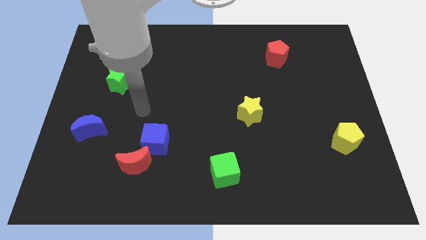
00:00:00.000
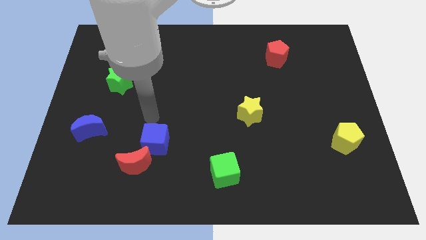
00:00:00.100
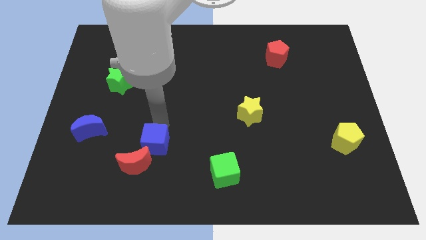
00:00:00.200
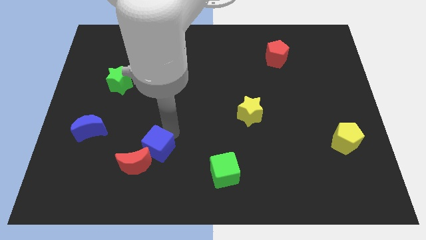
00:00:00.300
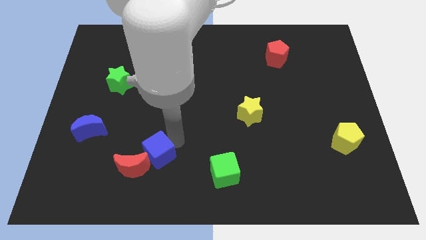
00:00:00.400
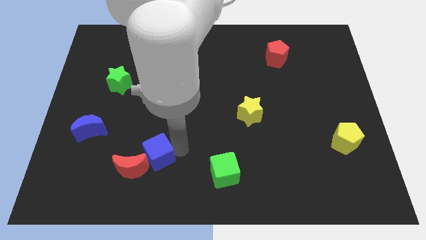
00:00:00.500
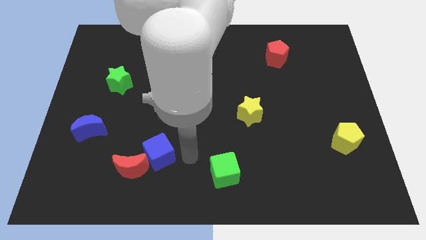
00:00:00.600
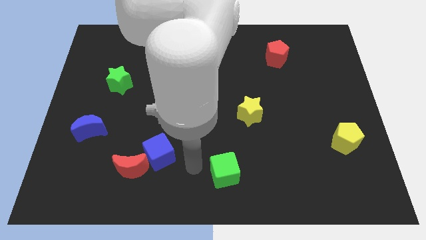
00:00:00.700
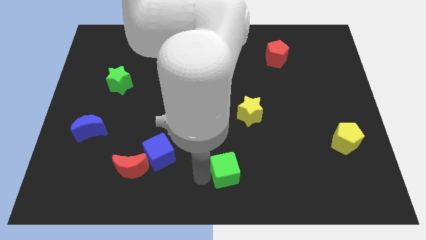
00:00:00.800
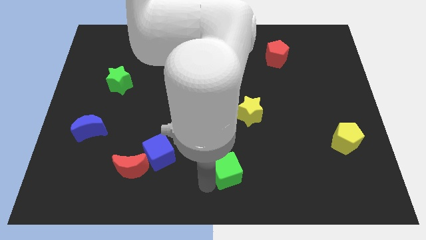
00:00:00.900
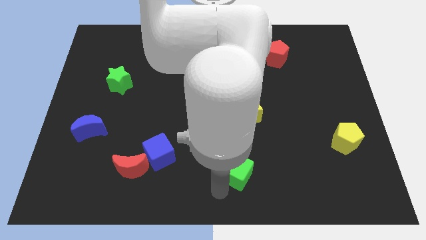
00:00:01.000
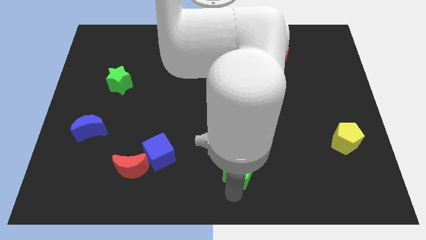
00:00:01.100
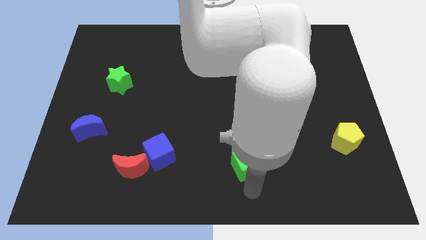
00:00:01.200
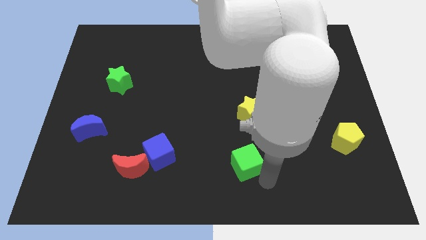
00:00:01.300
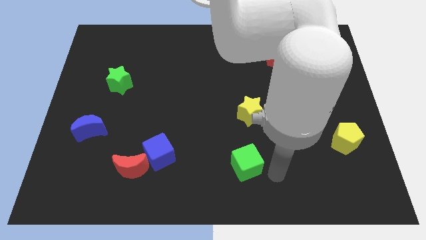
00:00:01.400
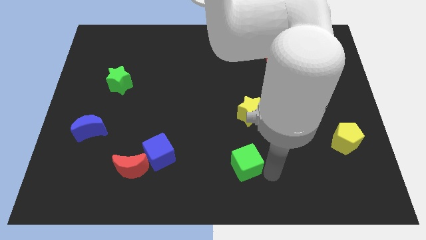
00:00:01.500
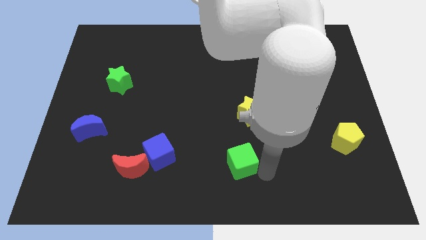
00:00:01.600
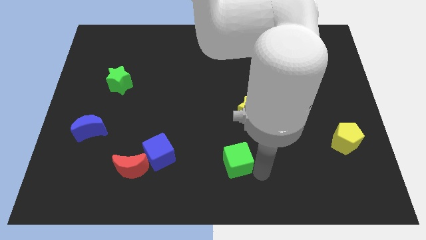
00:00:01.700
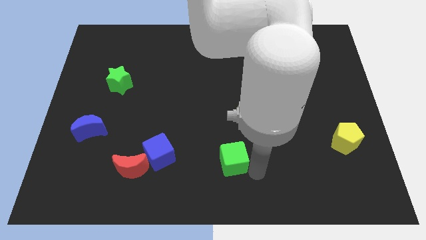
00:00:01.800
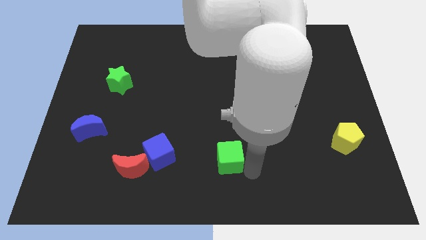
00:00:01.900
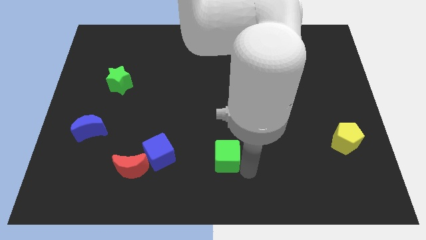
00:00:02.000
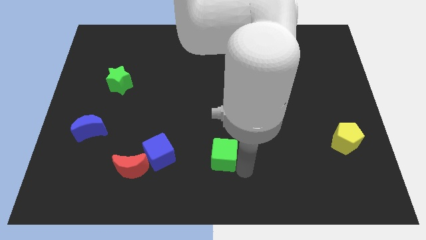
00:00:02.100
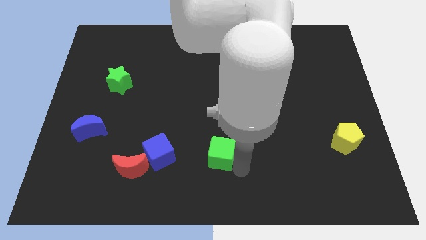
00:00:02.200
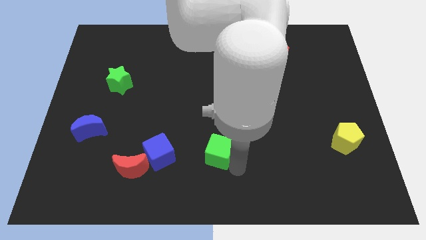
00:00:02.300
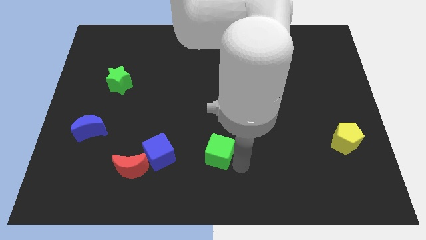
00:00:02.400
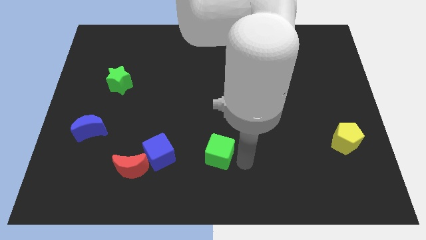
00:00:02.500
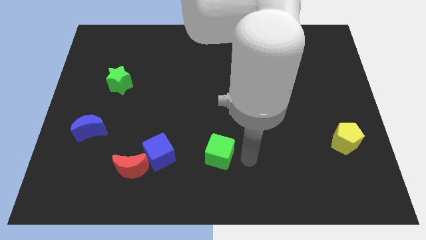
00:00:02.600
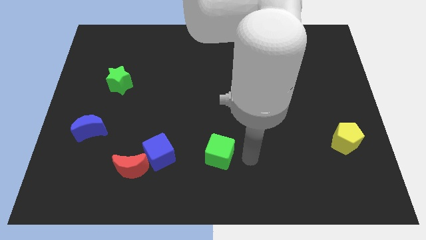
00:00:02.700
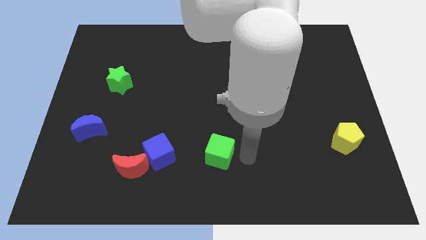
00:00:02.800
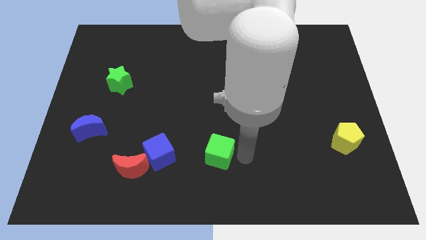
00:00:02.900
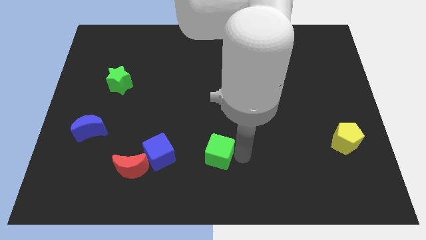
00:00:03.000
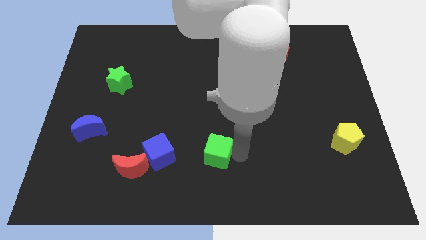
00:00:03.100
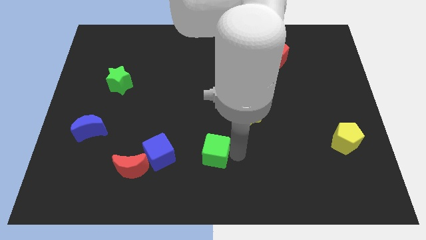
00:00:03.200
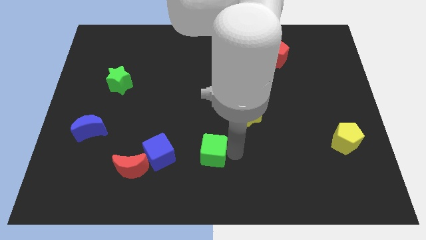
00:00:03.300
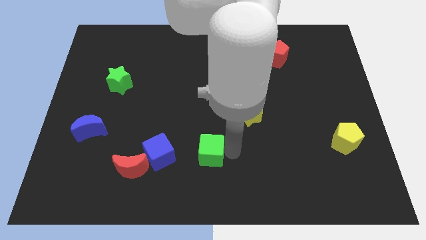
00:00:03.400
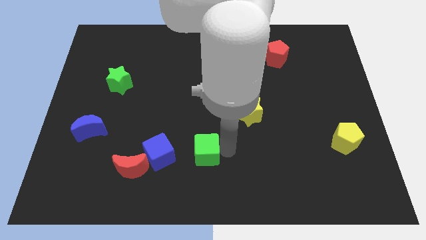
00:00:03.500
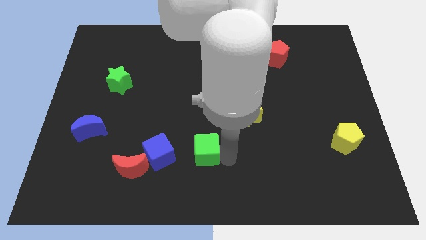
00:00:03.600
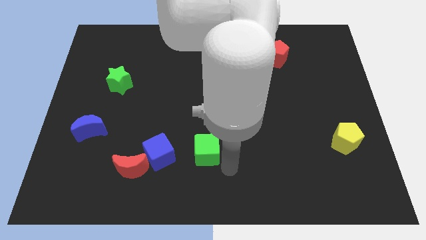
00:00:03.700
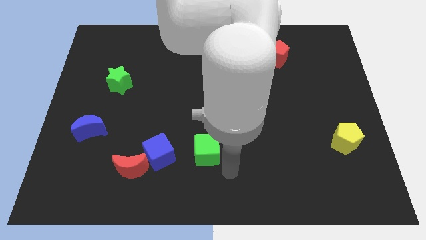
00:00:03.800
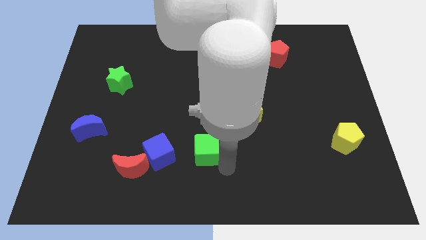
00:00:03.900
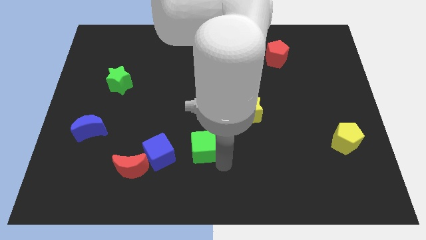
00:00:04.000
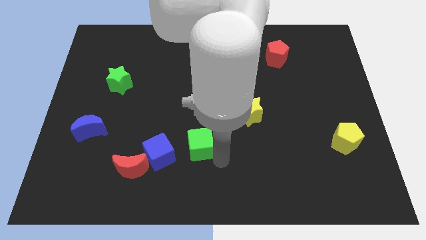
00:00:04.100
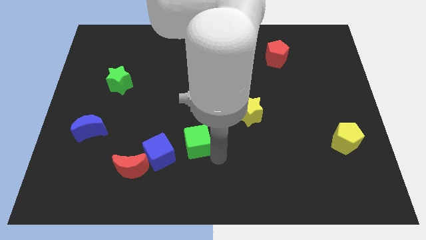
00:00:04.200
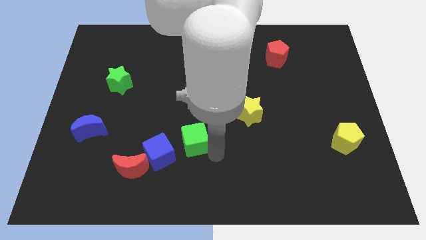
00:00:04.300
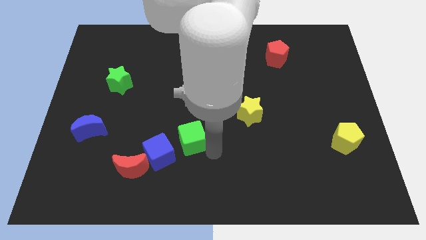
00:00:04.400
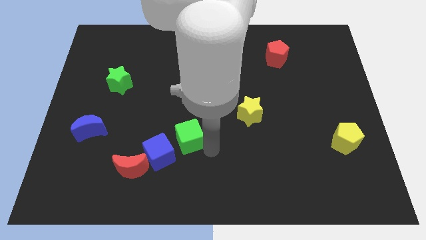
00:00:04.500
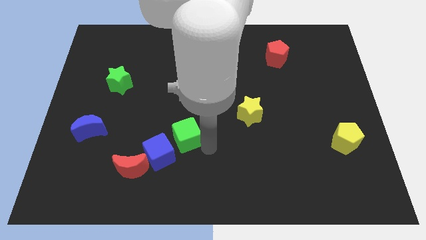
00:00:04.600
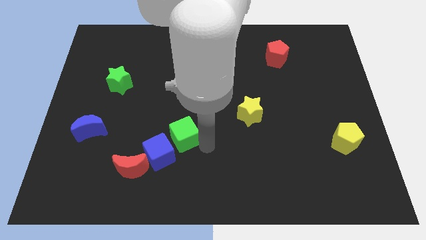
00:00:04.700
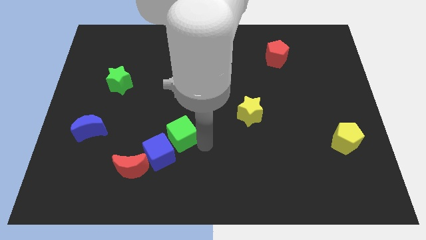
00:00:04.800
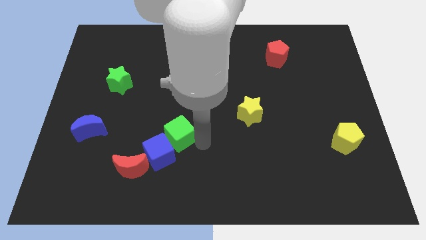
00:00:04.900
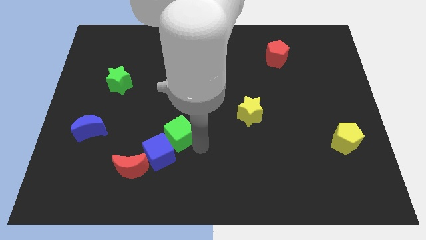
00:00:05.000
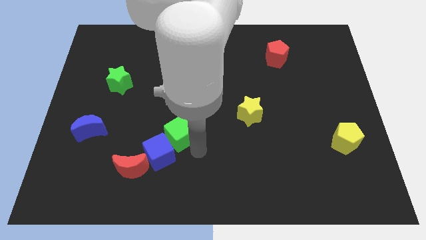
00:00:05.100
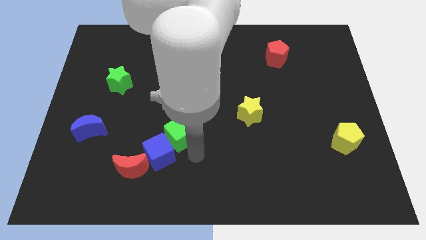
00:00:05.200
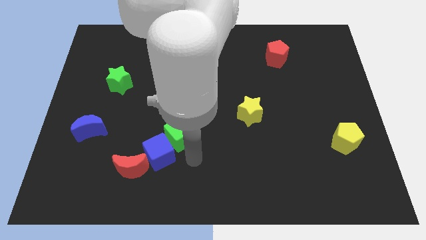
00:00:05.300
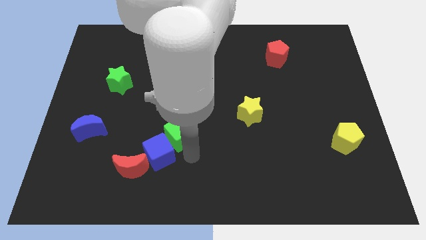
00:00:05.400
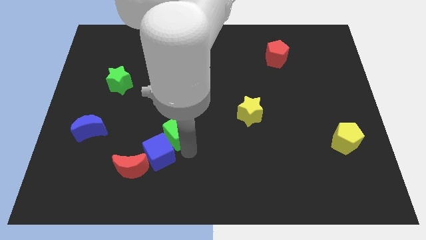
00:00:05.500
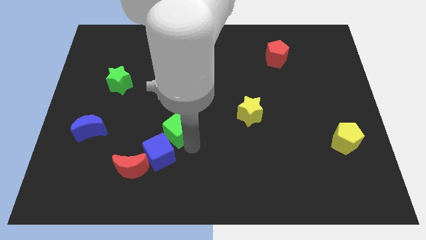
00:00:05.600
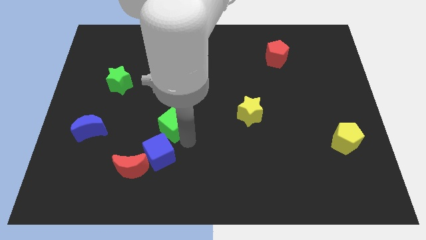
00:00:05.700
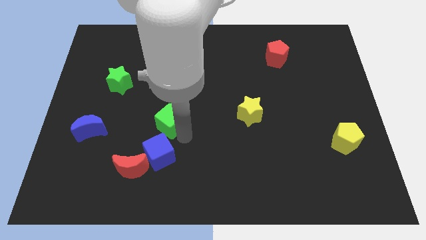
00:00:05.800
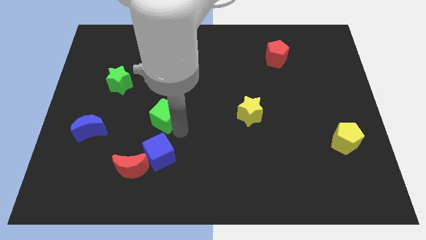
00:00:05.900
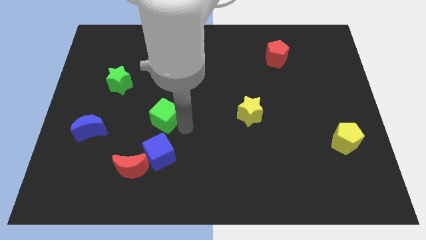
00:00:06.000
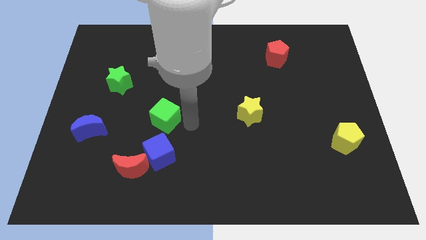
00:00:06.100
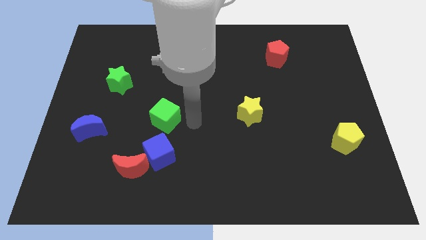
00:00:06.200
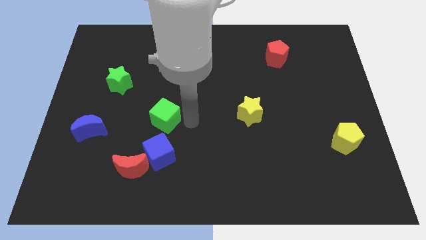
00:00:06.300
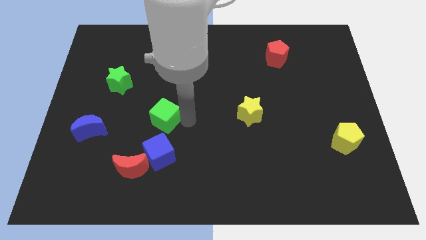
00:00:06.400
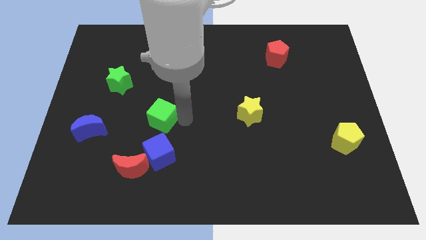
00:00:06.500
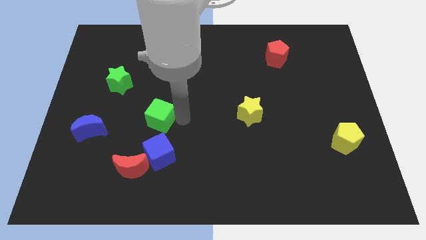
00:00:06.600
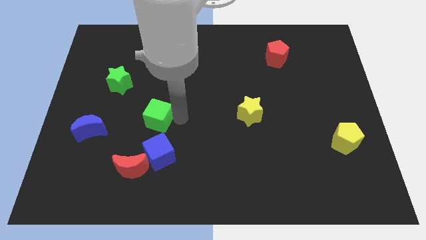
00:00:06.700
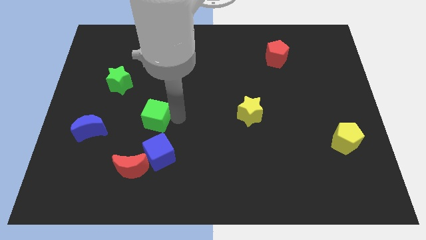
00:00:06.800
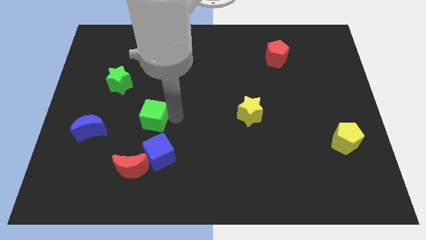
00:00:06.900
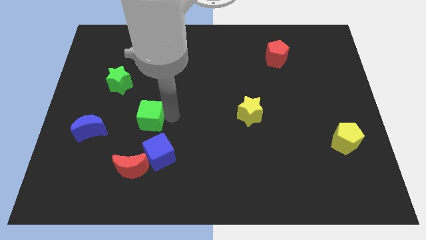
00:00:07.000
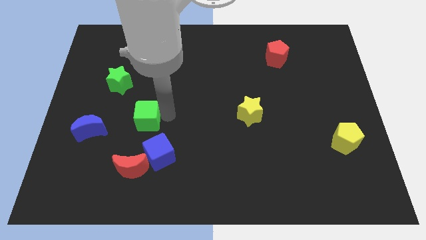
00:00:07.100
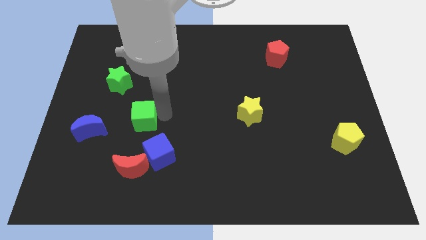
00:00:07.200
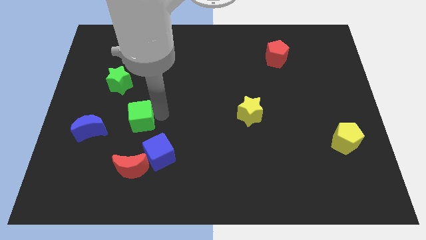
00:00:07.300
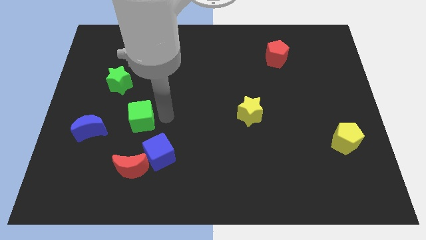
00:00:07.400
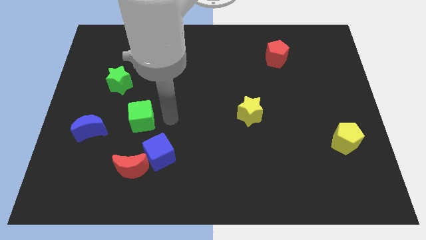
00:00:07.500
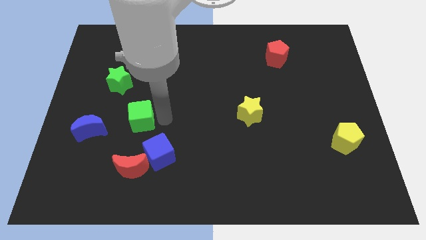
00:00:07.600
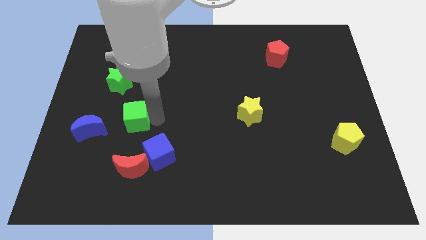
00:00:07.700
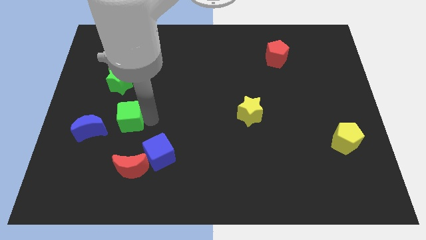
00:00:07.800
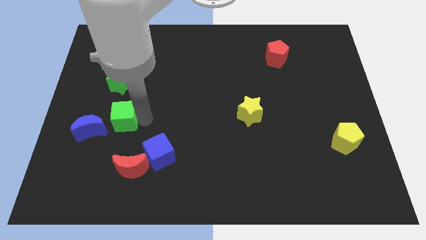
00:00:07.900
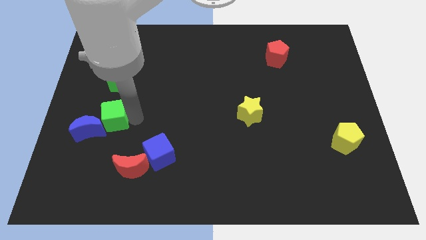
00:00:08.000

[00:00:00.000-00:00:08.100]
push the green cube close to the blue moon
